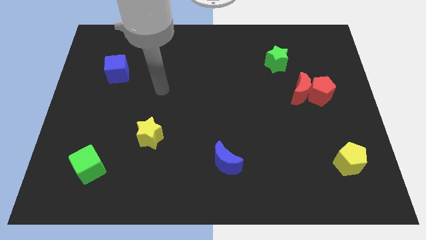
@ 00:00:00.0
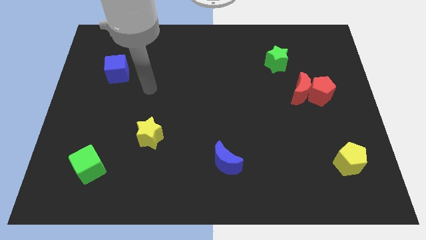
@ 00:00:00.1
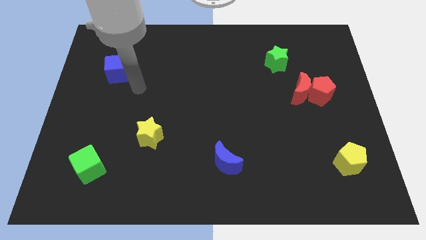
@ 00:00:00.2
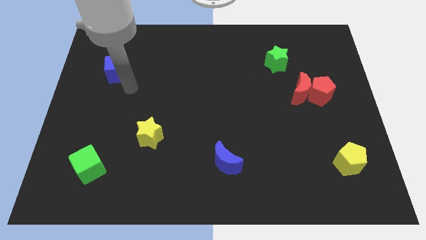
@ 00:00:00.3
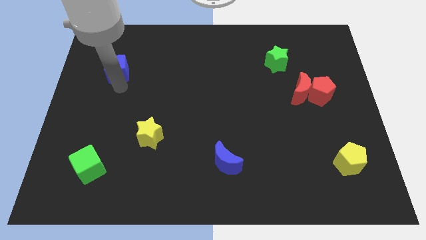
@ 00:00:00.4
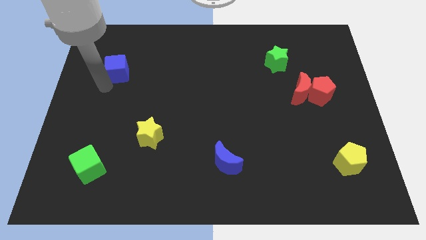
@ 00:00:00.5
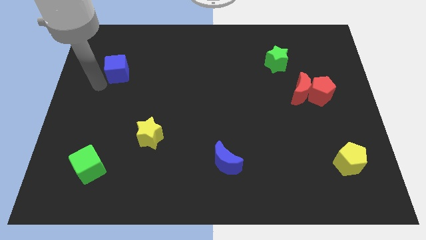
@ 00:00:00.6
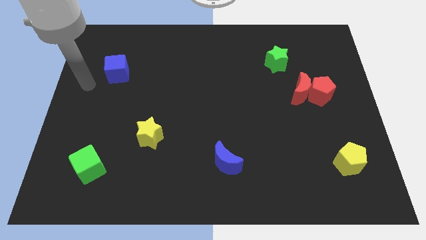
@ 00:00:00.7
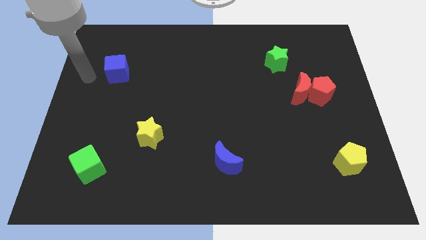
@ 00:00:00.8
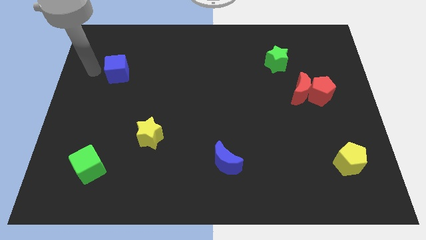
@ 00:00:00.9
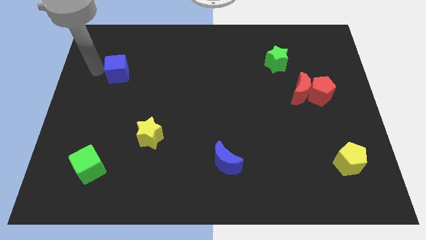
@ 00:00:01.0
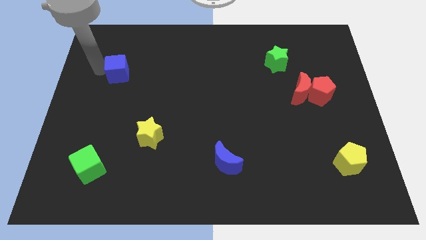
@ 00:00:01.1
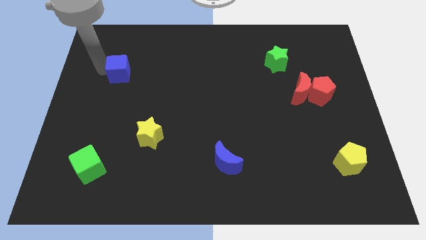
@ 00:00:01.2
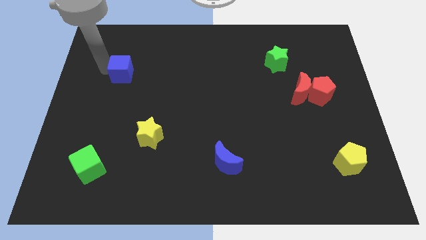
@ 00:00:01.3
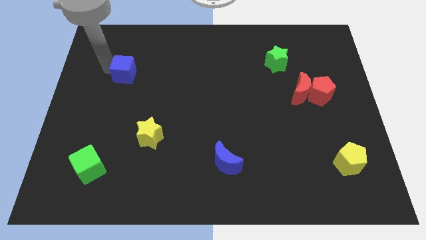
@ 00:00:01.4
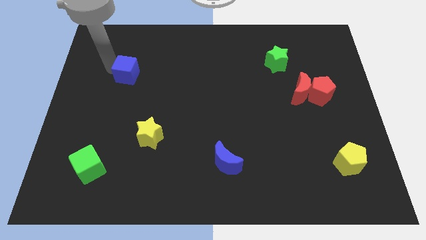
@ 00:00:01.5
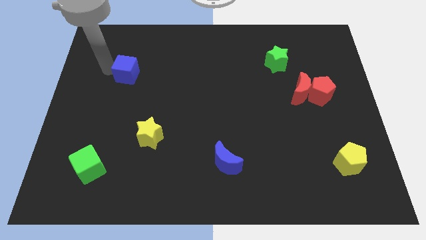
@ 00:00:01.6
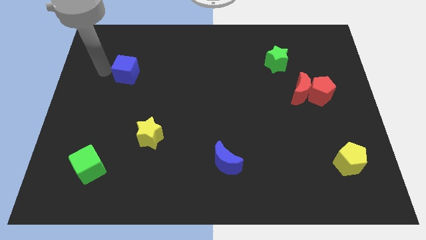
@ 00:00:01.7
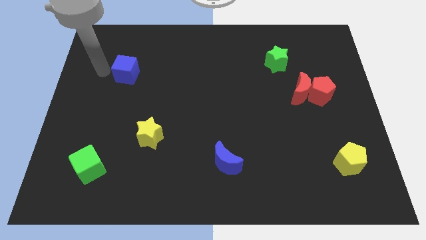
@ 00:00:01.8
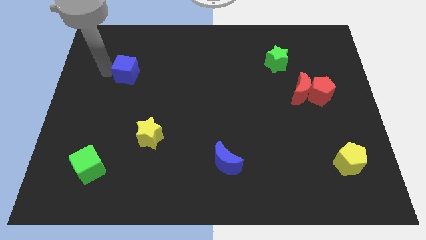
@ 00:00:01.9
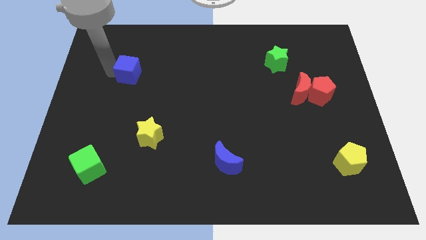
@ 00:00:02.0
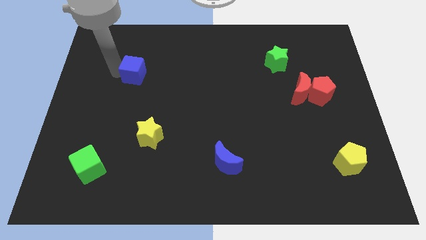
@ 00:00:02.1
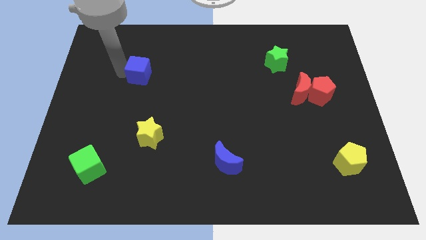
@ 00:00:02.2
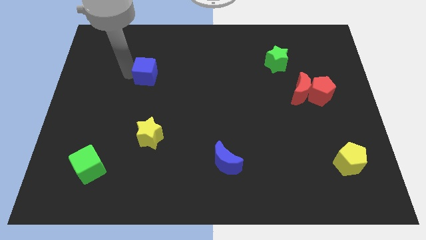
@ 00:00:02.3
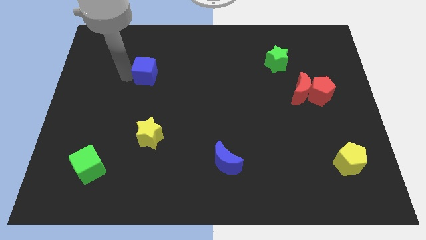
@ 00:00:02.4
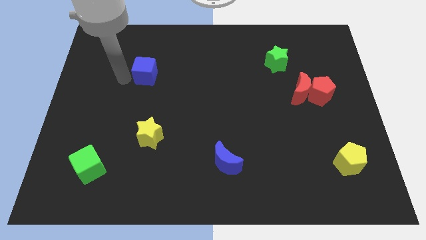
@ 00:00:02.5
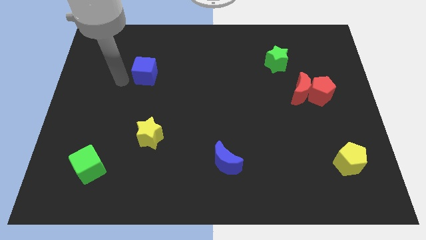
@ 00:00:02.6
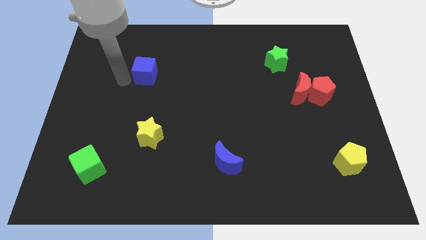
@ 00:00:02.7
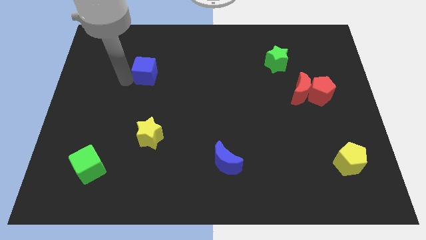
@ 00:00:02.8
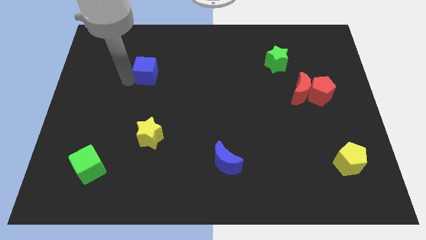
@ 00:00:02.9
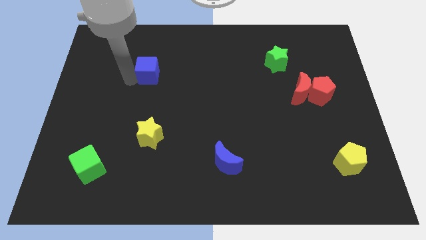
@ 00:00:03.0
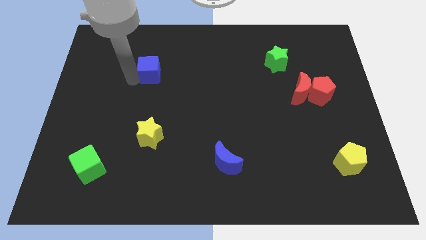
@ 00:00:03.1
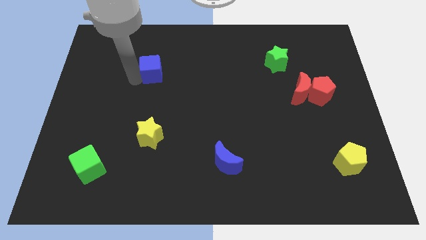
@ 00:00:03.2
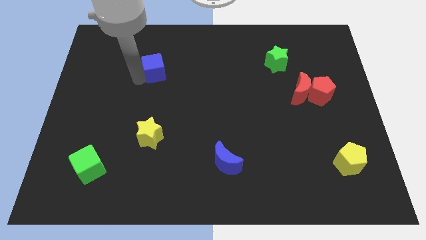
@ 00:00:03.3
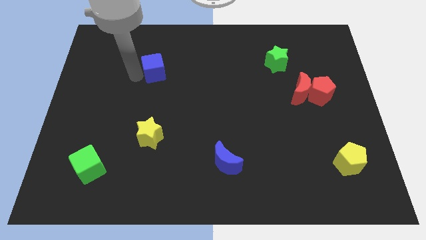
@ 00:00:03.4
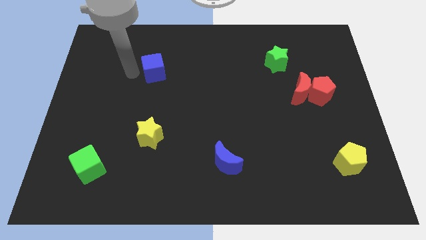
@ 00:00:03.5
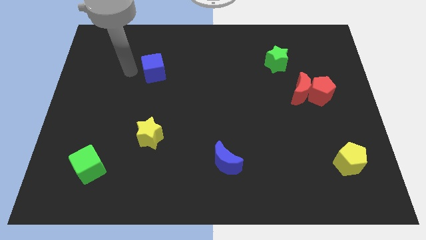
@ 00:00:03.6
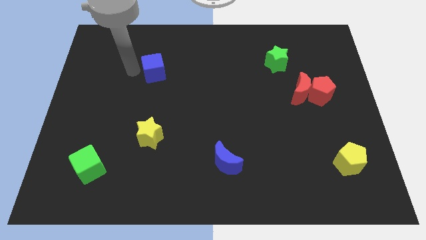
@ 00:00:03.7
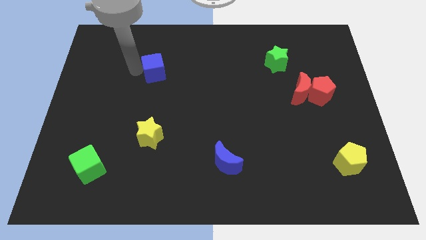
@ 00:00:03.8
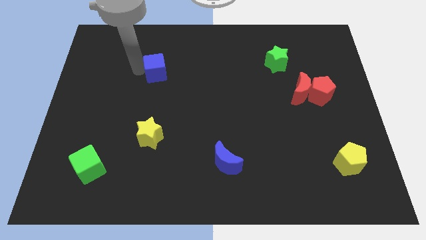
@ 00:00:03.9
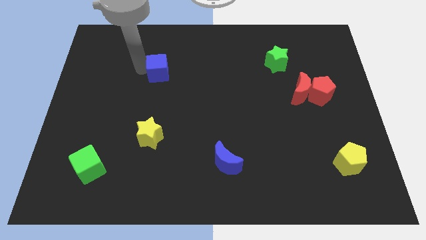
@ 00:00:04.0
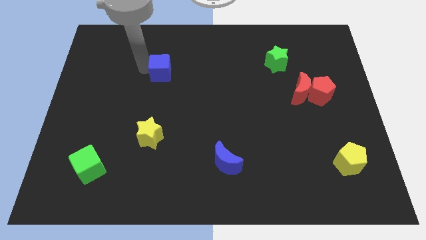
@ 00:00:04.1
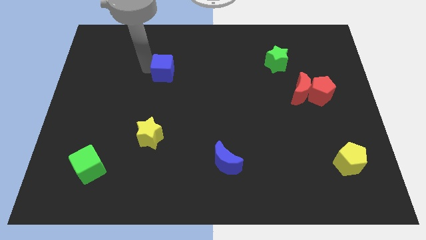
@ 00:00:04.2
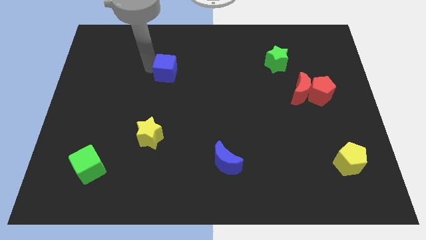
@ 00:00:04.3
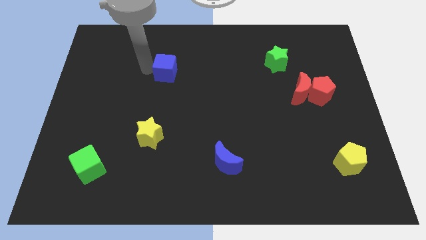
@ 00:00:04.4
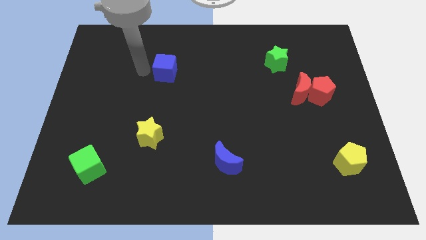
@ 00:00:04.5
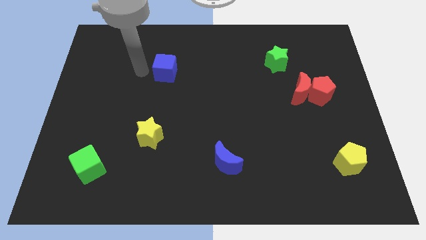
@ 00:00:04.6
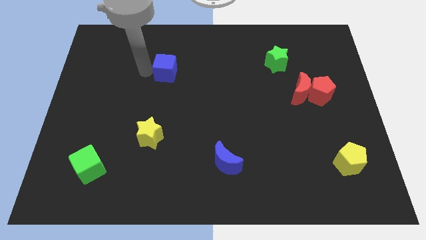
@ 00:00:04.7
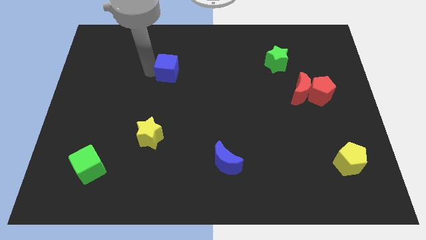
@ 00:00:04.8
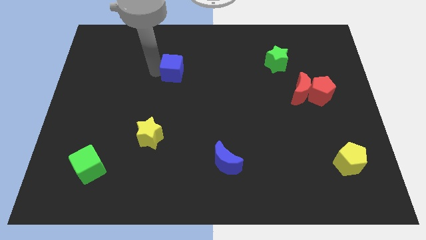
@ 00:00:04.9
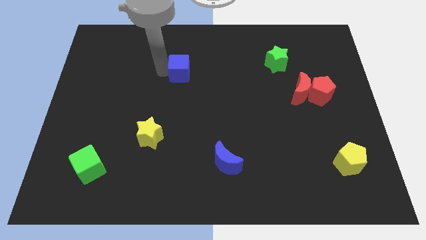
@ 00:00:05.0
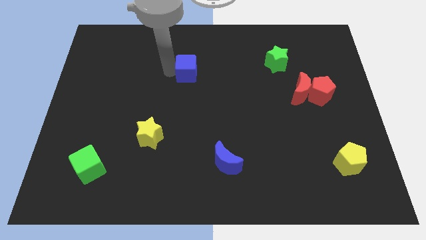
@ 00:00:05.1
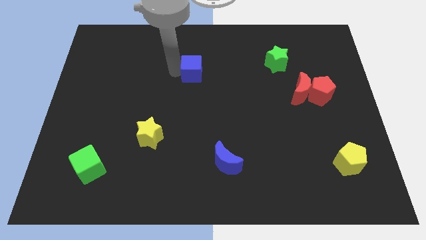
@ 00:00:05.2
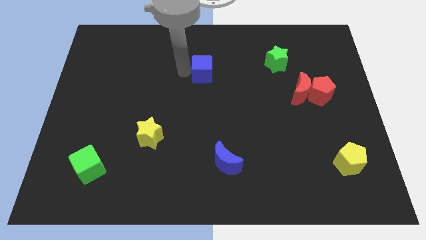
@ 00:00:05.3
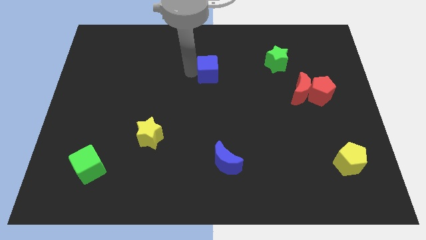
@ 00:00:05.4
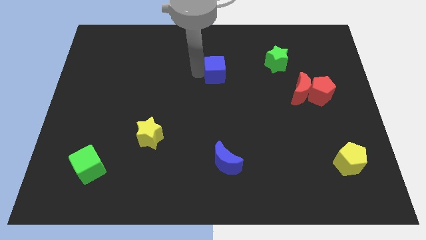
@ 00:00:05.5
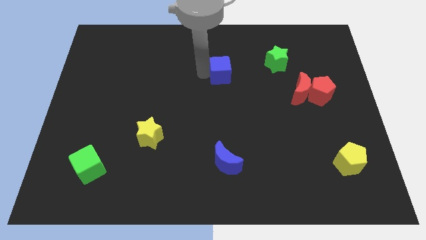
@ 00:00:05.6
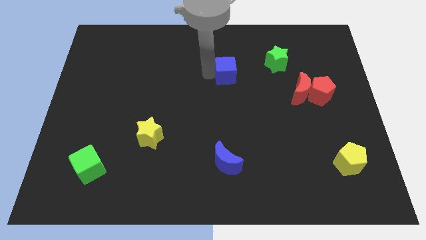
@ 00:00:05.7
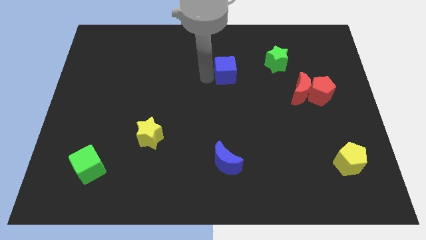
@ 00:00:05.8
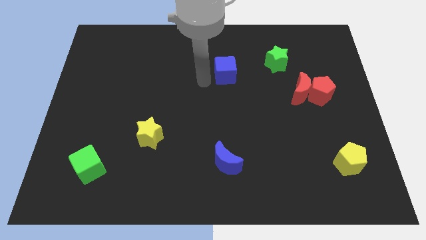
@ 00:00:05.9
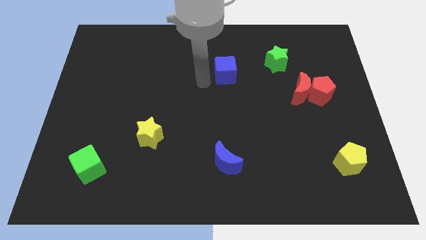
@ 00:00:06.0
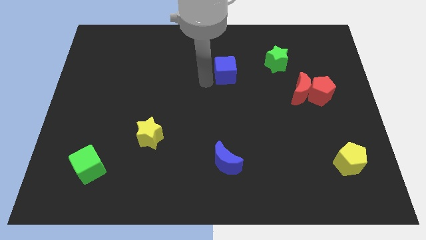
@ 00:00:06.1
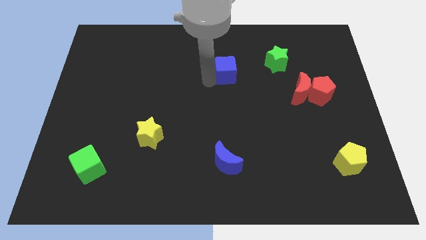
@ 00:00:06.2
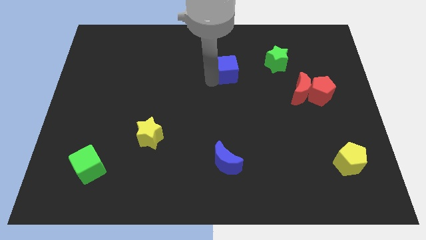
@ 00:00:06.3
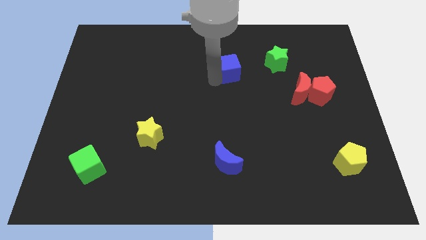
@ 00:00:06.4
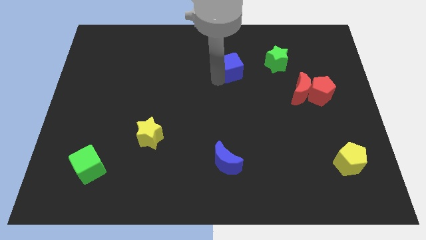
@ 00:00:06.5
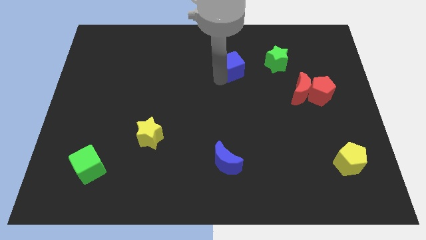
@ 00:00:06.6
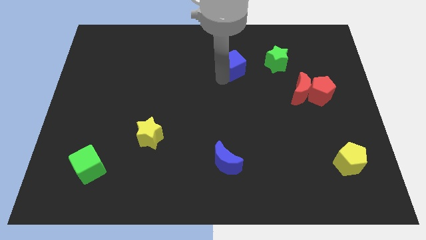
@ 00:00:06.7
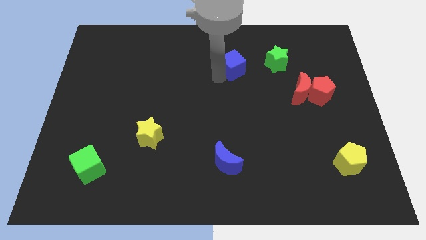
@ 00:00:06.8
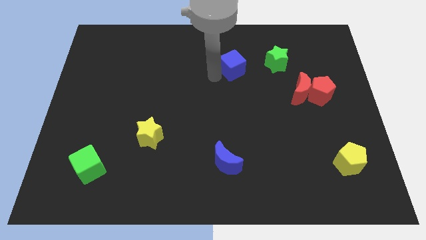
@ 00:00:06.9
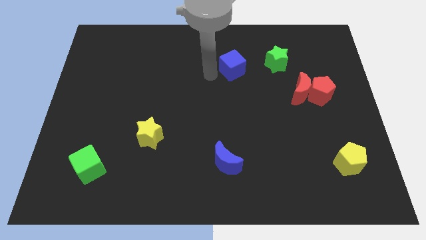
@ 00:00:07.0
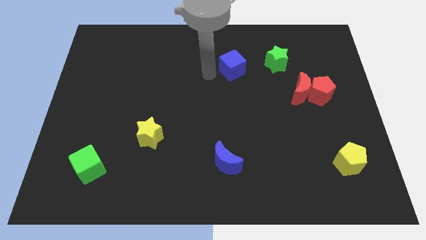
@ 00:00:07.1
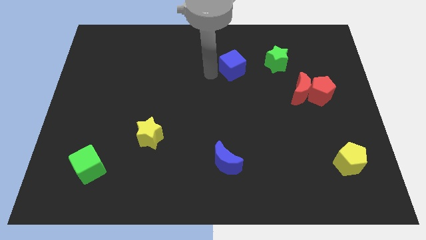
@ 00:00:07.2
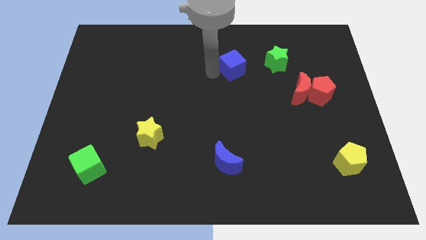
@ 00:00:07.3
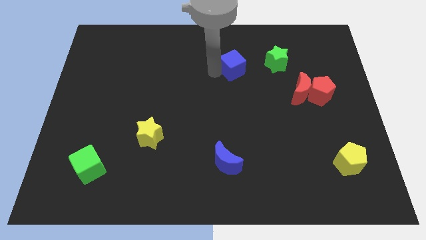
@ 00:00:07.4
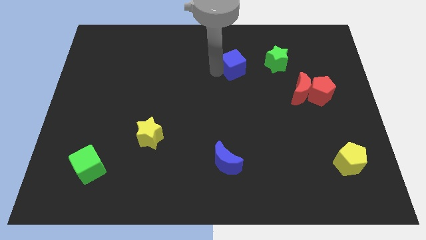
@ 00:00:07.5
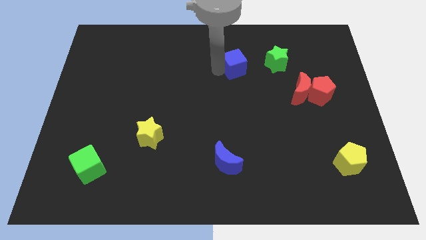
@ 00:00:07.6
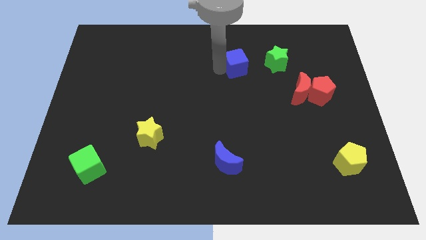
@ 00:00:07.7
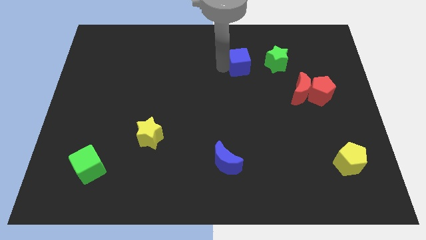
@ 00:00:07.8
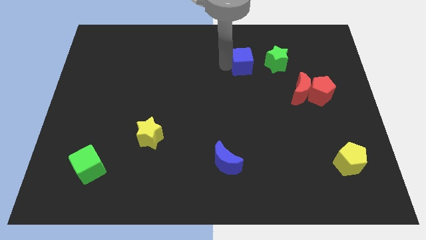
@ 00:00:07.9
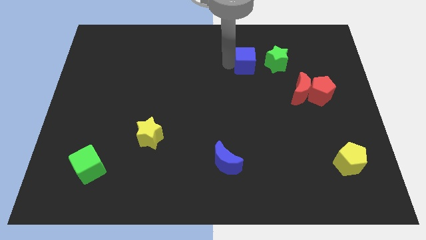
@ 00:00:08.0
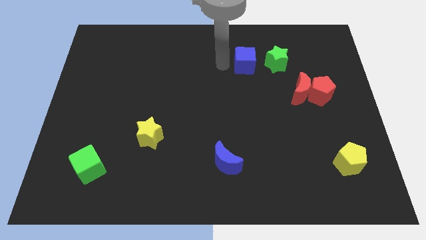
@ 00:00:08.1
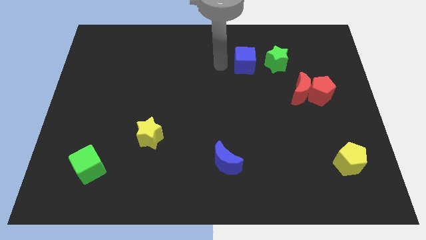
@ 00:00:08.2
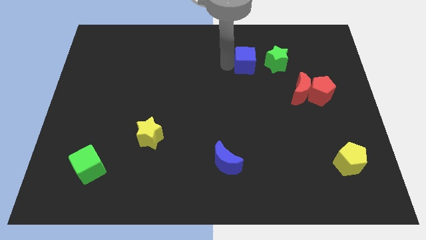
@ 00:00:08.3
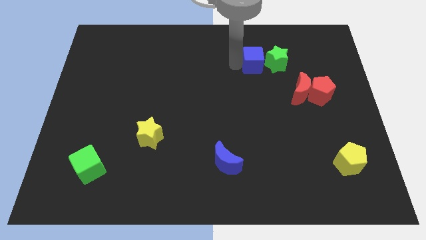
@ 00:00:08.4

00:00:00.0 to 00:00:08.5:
put the blue cube next to the green star
